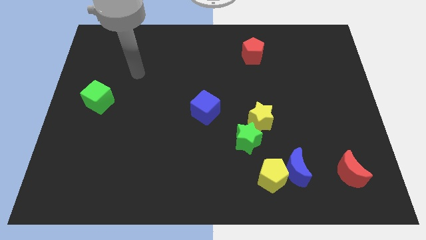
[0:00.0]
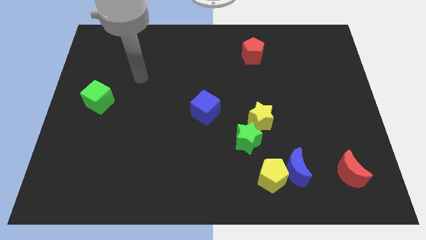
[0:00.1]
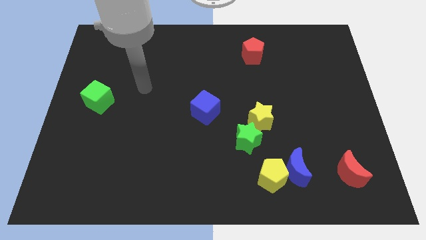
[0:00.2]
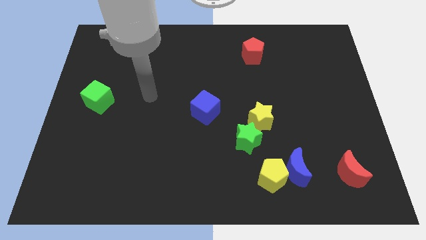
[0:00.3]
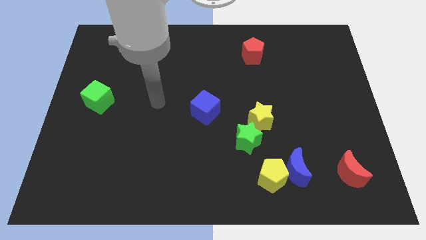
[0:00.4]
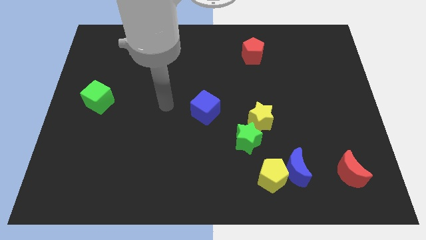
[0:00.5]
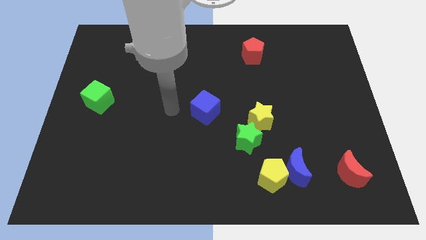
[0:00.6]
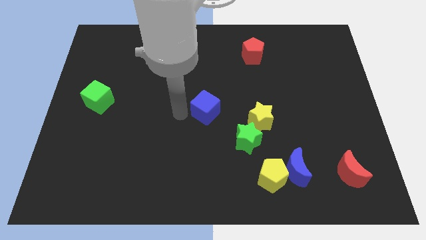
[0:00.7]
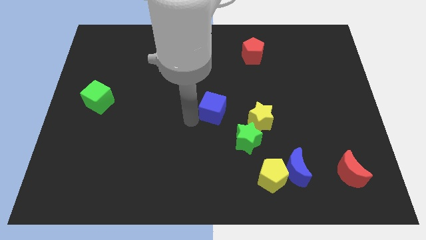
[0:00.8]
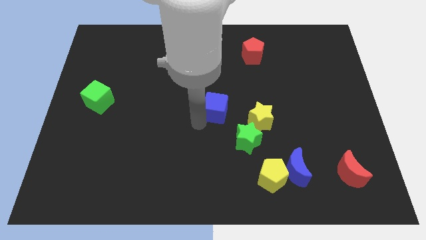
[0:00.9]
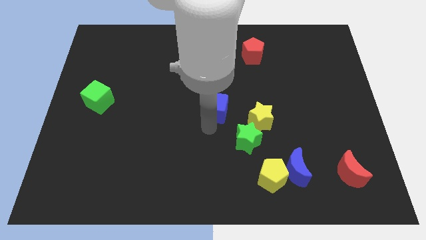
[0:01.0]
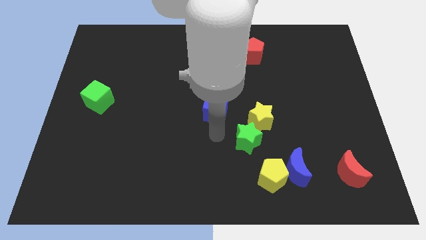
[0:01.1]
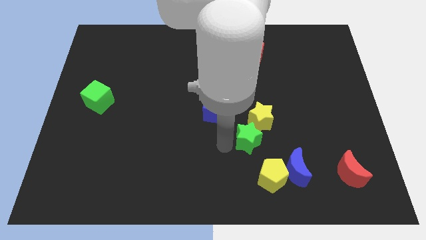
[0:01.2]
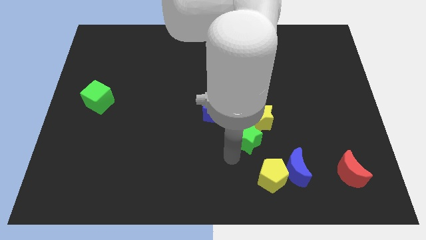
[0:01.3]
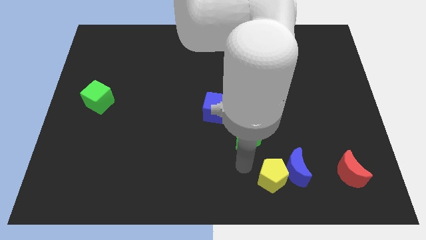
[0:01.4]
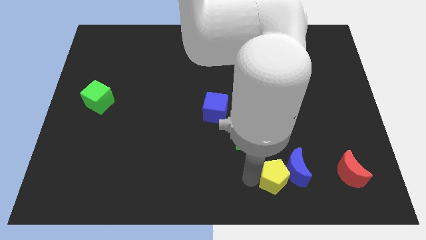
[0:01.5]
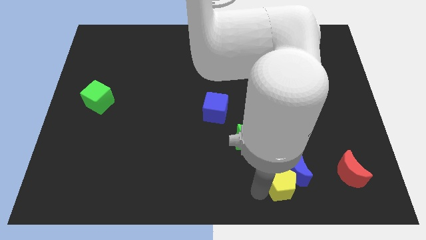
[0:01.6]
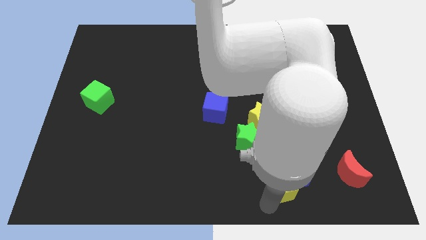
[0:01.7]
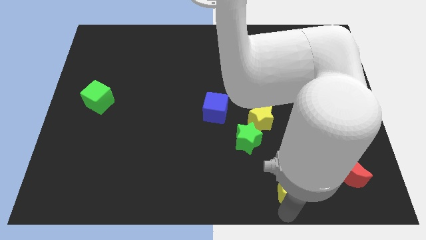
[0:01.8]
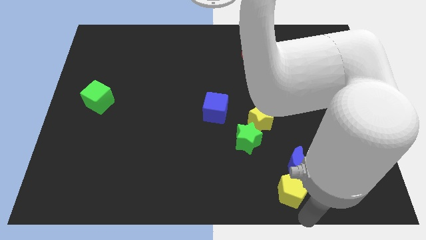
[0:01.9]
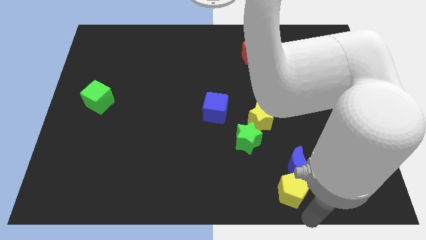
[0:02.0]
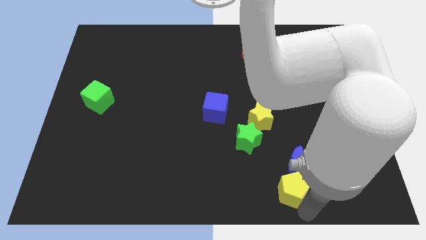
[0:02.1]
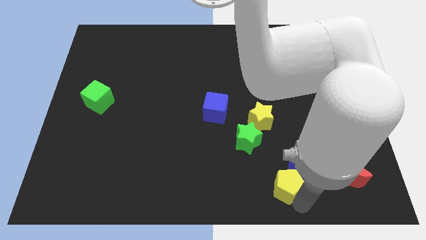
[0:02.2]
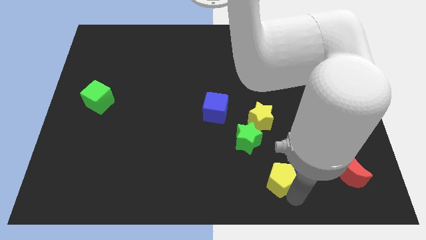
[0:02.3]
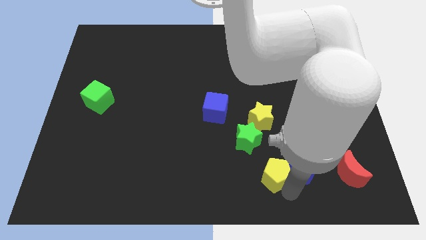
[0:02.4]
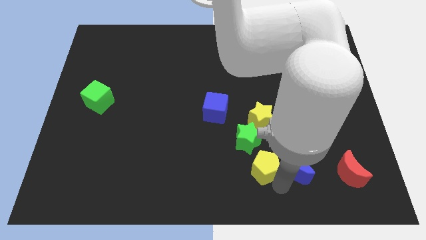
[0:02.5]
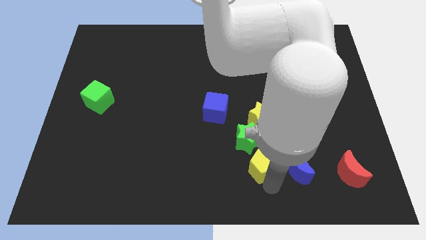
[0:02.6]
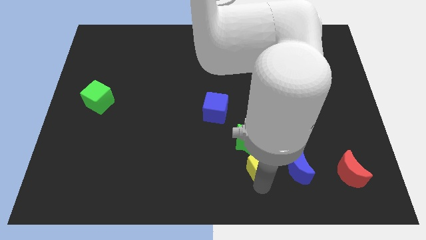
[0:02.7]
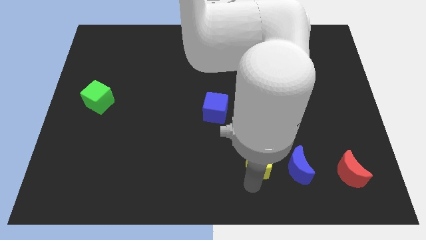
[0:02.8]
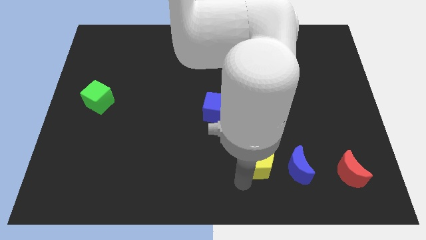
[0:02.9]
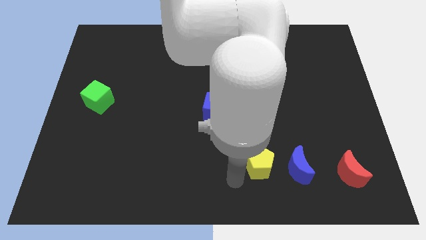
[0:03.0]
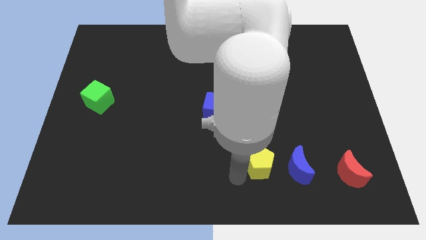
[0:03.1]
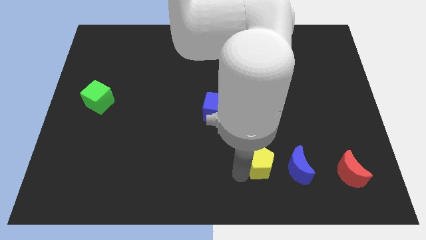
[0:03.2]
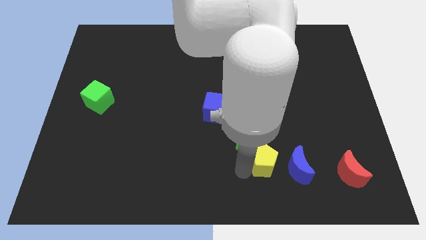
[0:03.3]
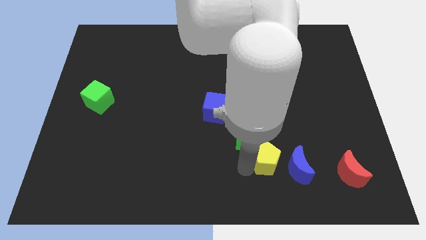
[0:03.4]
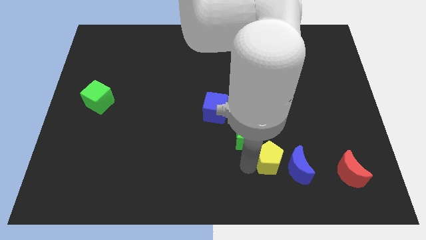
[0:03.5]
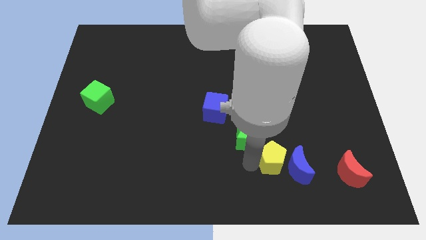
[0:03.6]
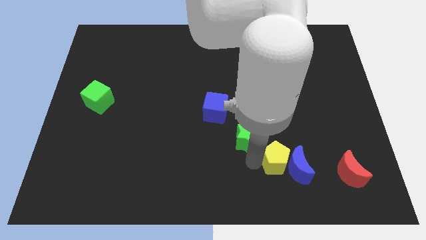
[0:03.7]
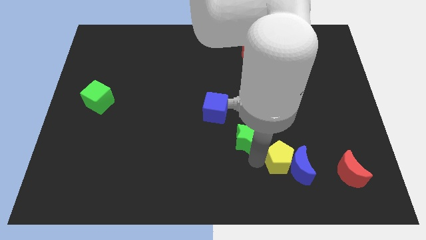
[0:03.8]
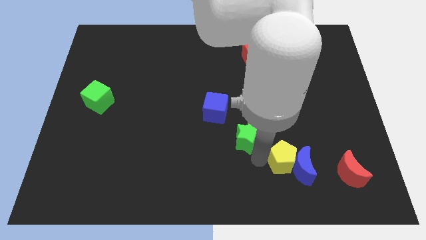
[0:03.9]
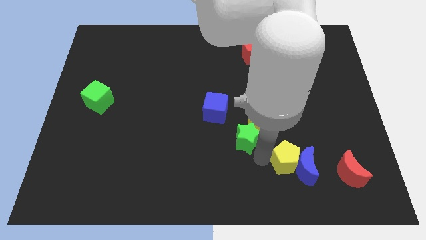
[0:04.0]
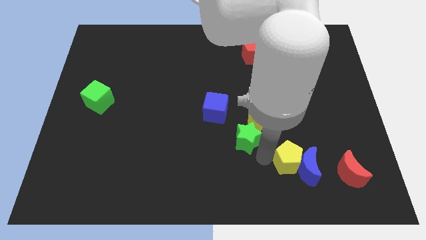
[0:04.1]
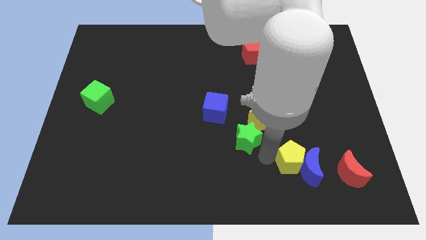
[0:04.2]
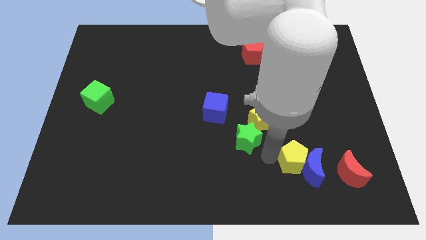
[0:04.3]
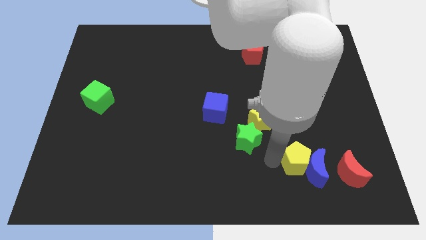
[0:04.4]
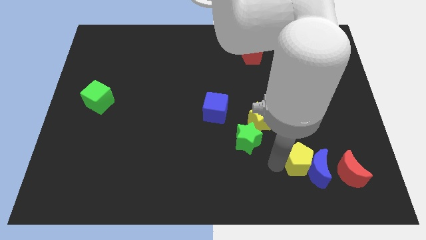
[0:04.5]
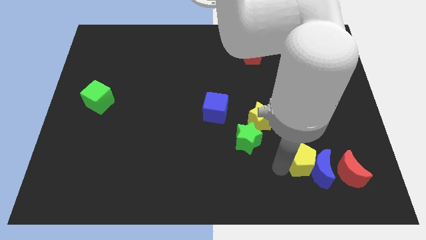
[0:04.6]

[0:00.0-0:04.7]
slide the yellow pentagon upwards and right diagonally somewhat

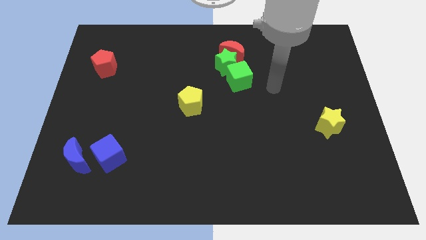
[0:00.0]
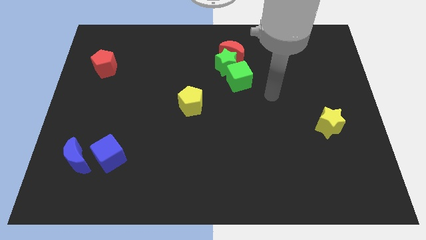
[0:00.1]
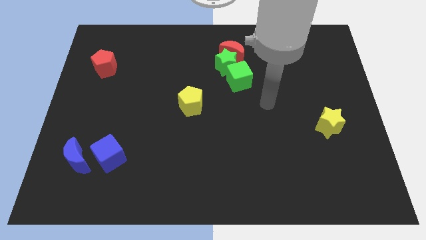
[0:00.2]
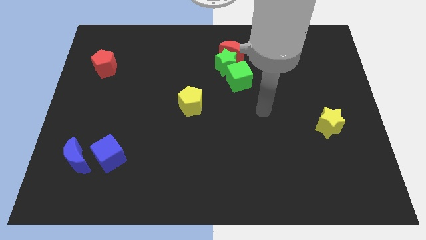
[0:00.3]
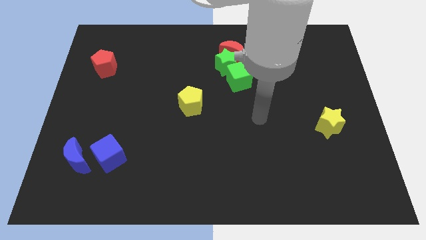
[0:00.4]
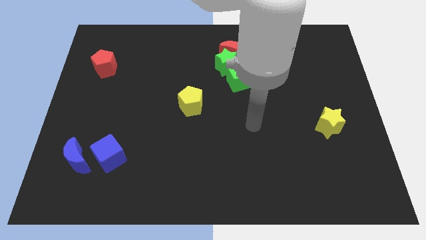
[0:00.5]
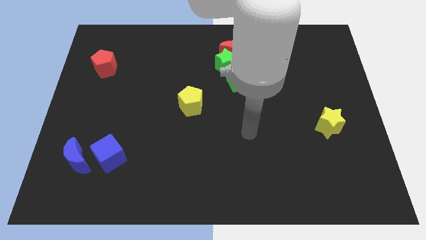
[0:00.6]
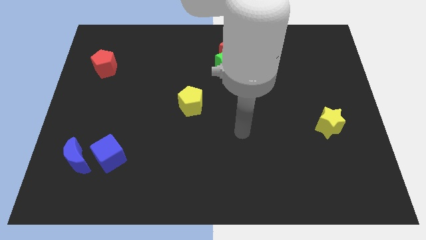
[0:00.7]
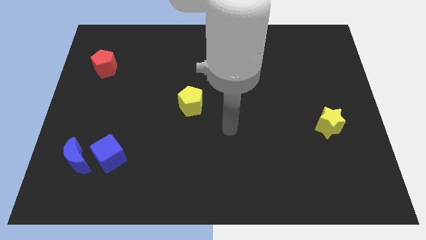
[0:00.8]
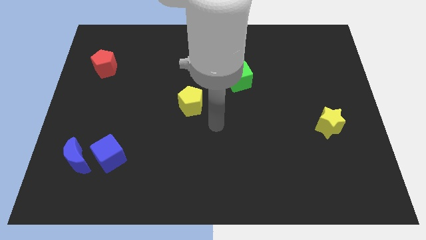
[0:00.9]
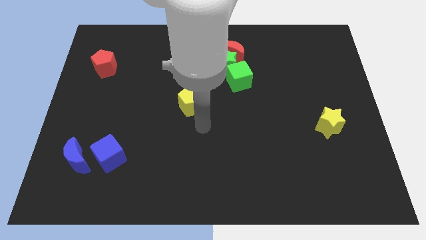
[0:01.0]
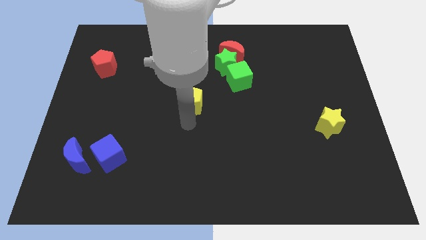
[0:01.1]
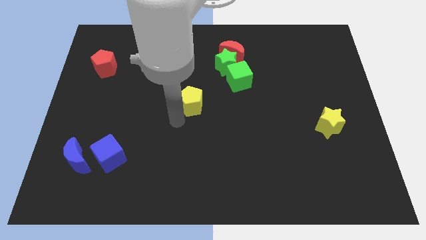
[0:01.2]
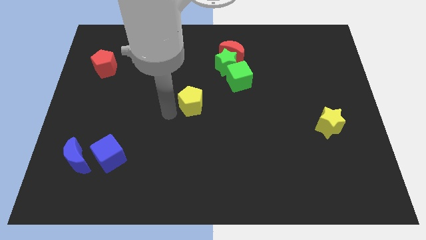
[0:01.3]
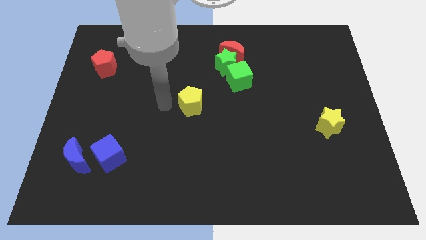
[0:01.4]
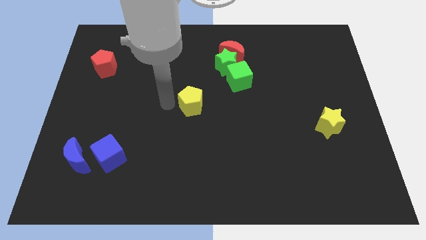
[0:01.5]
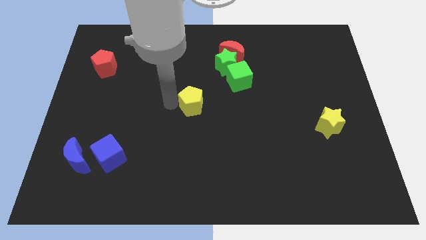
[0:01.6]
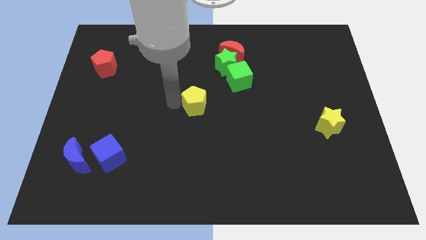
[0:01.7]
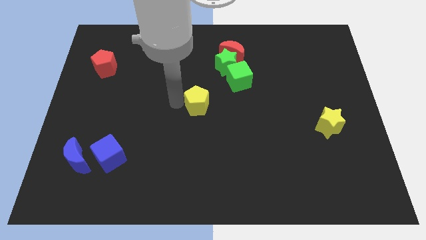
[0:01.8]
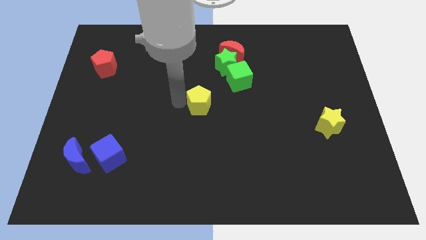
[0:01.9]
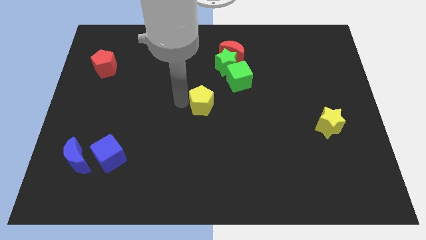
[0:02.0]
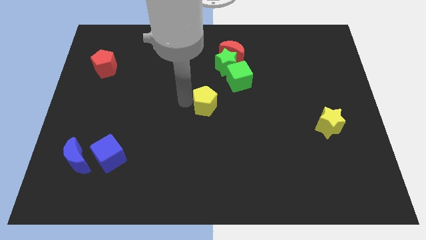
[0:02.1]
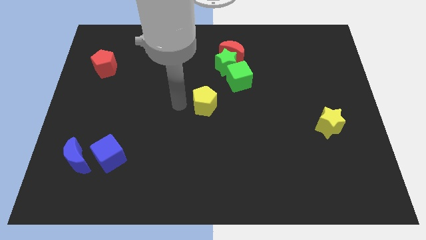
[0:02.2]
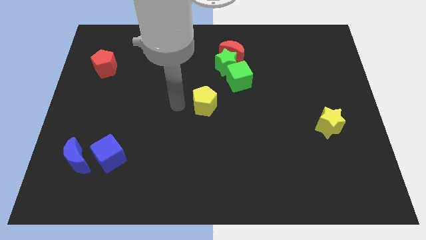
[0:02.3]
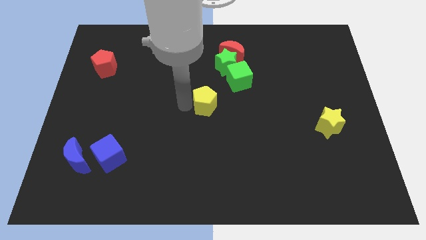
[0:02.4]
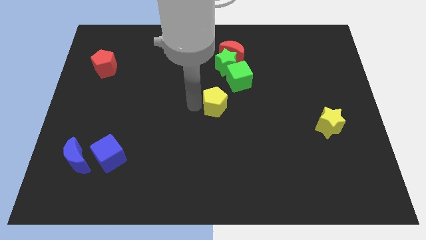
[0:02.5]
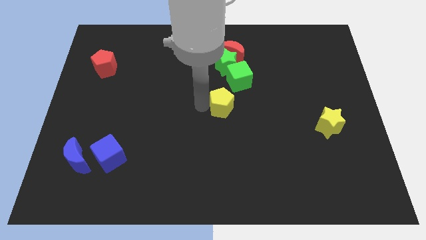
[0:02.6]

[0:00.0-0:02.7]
push the yellow pentagon a little bit to the right

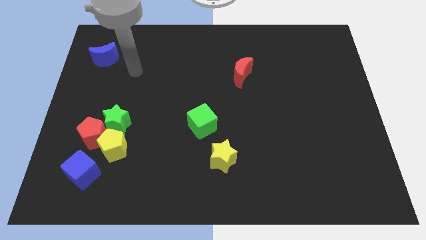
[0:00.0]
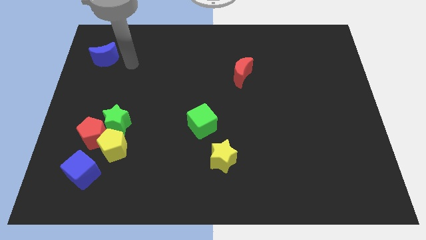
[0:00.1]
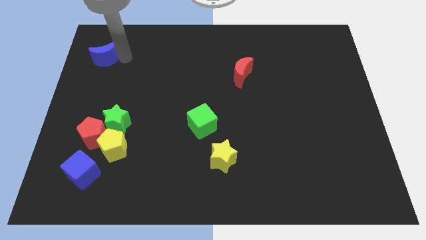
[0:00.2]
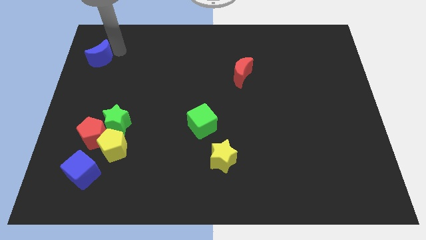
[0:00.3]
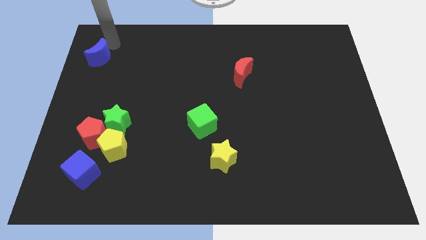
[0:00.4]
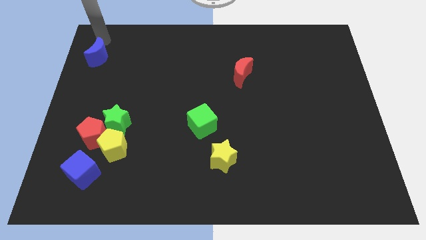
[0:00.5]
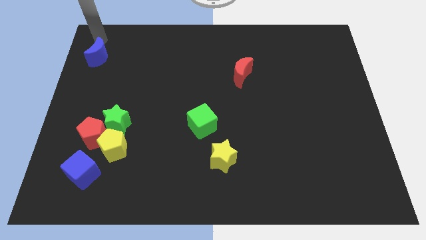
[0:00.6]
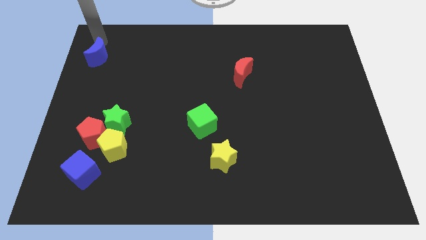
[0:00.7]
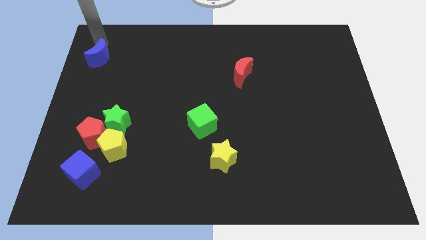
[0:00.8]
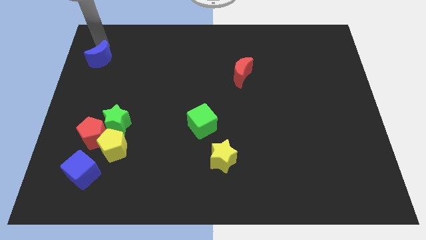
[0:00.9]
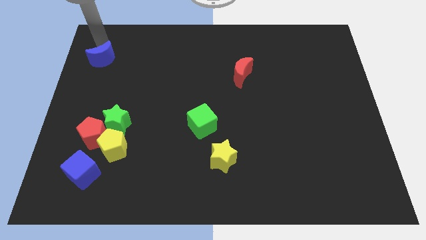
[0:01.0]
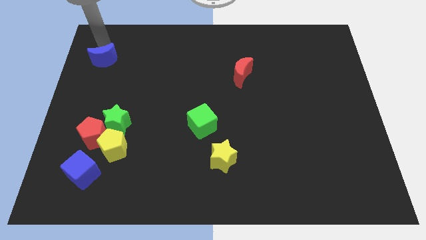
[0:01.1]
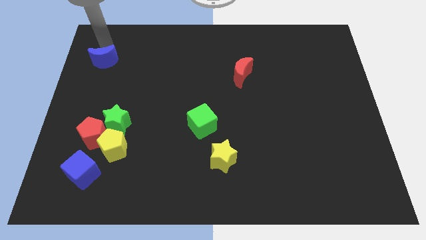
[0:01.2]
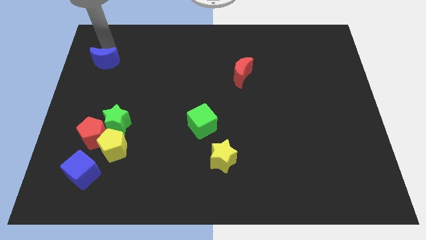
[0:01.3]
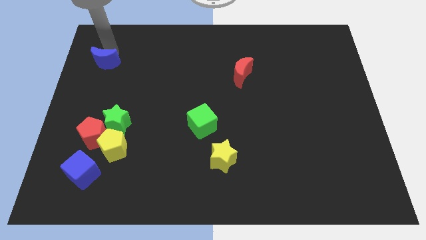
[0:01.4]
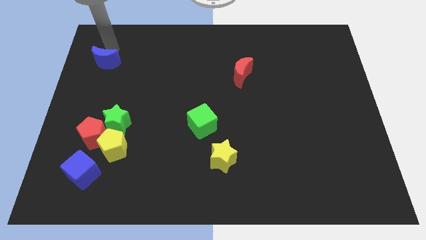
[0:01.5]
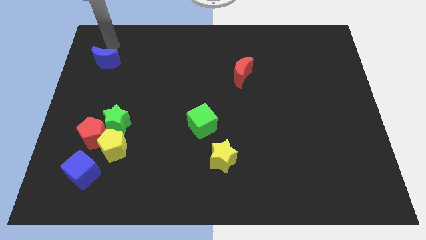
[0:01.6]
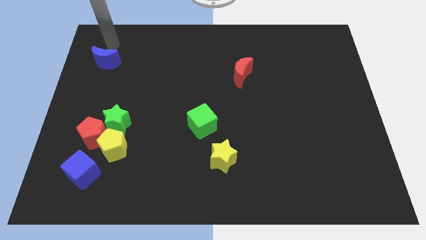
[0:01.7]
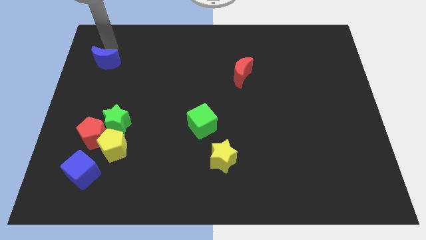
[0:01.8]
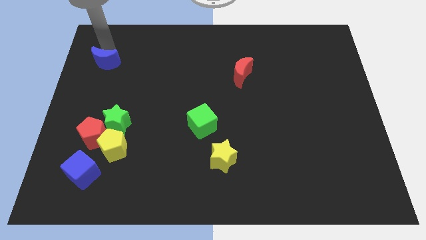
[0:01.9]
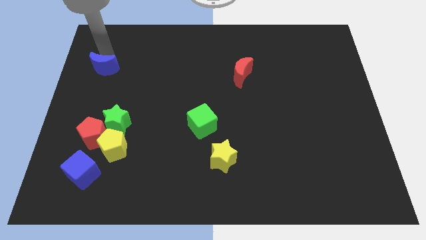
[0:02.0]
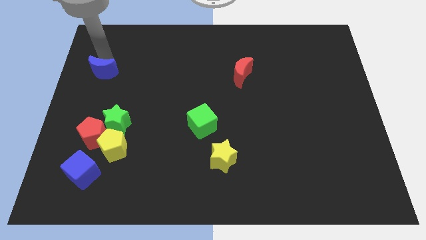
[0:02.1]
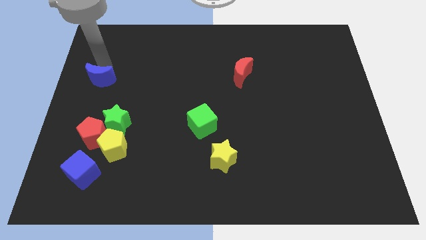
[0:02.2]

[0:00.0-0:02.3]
move the blue moon slightly down
